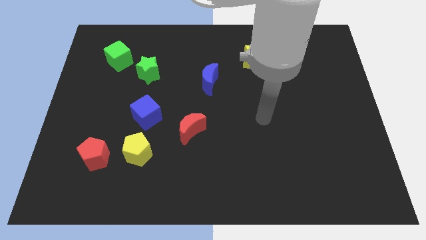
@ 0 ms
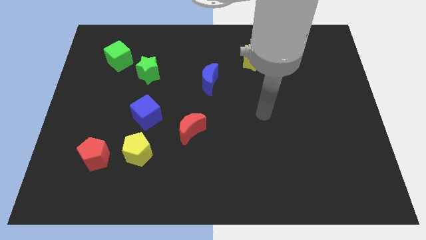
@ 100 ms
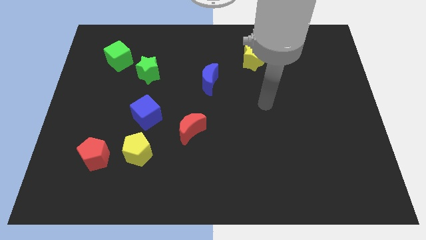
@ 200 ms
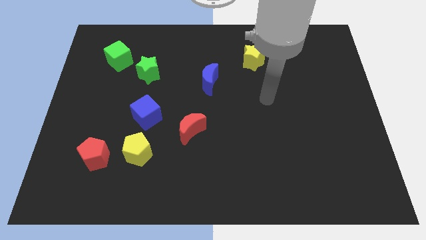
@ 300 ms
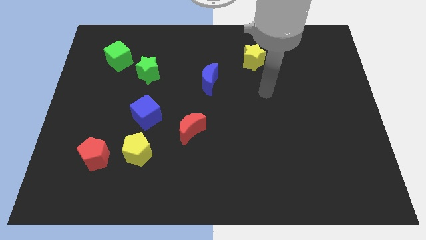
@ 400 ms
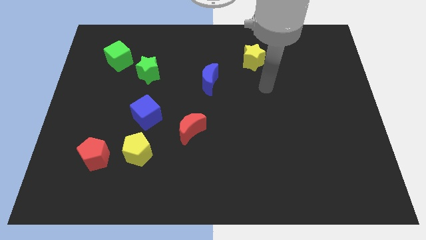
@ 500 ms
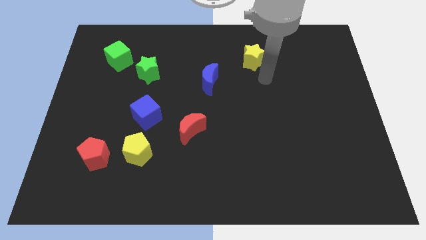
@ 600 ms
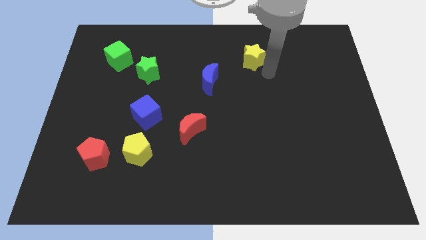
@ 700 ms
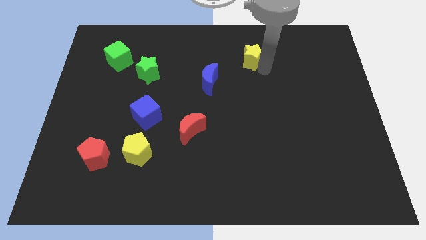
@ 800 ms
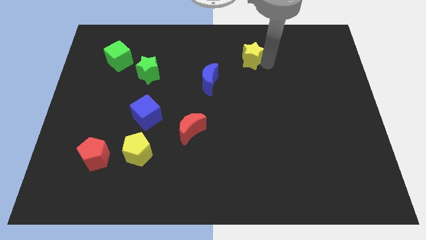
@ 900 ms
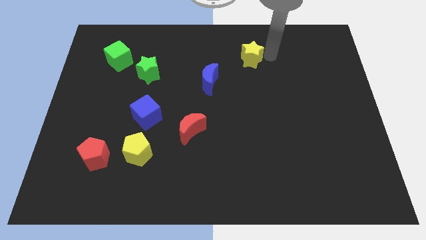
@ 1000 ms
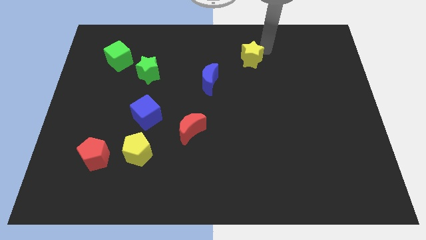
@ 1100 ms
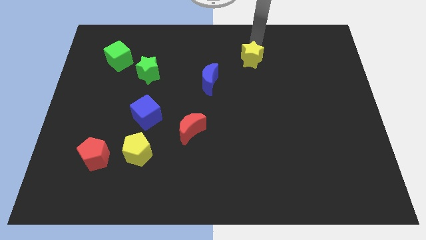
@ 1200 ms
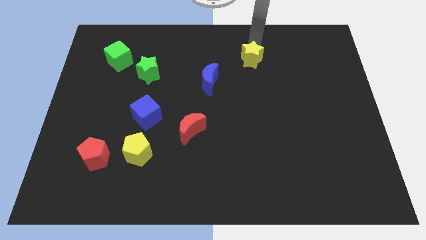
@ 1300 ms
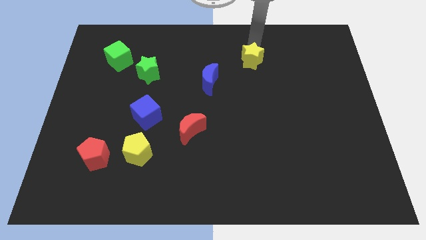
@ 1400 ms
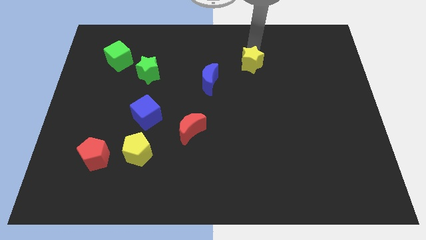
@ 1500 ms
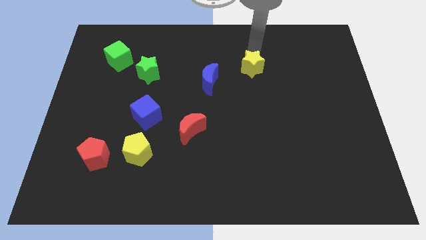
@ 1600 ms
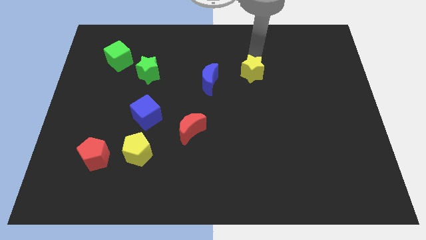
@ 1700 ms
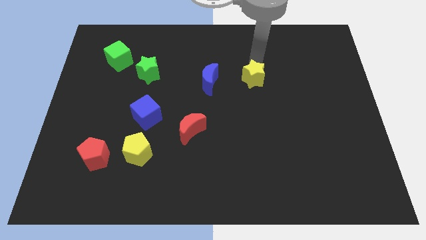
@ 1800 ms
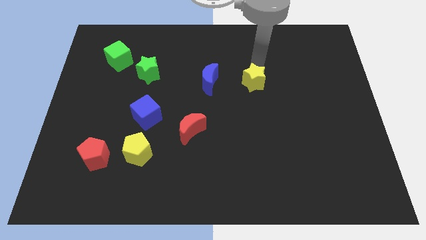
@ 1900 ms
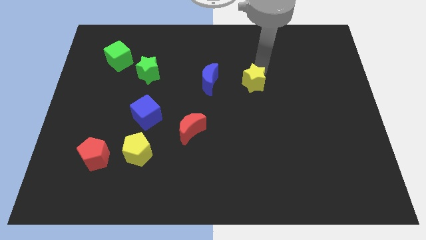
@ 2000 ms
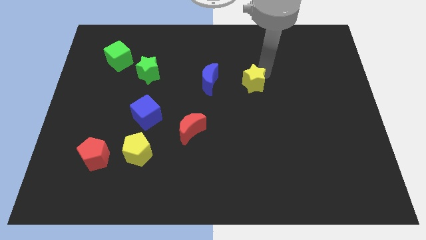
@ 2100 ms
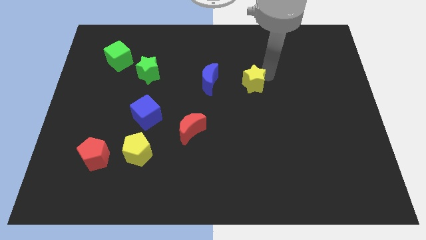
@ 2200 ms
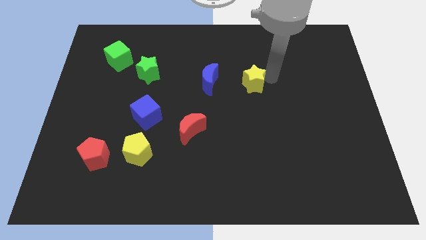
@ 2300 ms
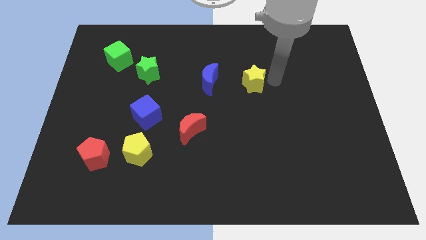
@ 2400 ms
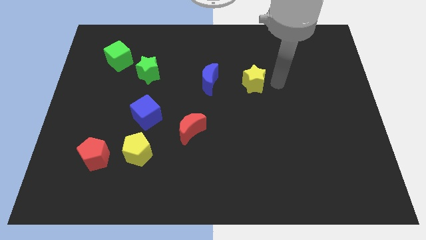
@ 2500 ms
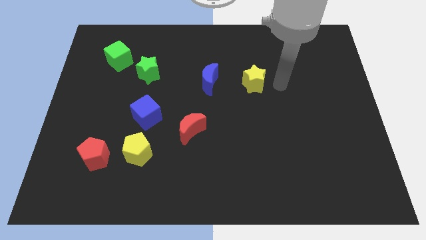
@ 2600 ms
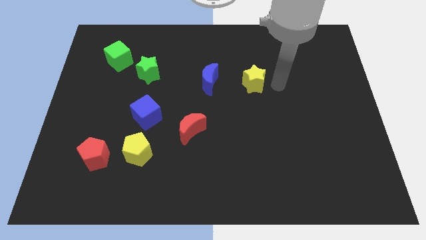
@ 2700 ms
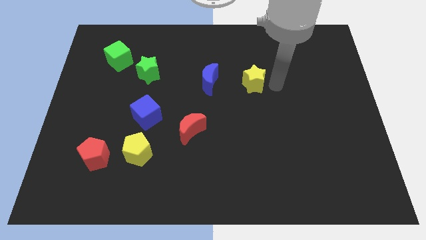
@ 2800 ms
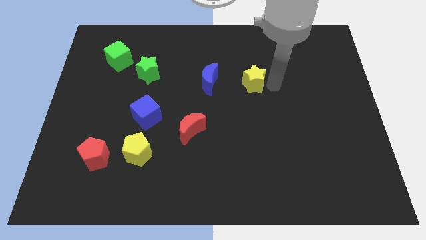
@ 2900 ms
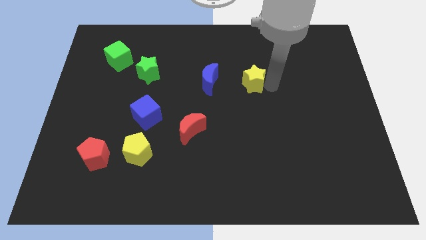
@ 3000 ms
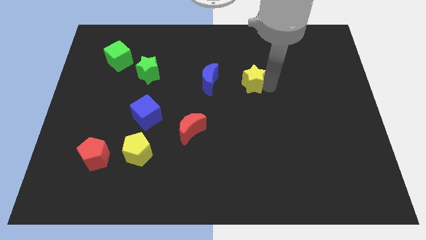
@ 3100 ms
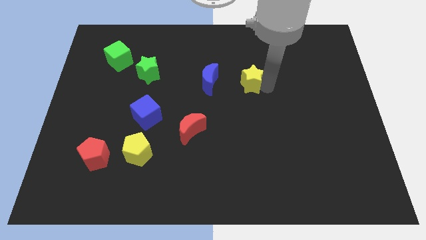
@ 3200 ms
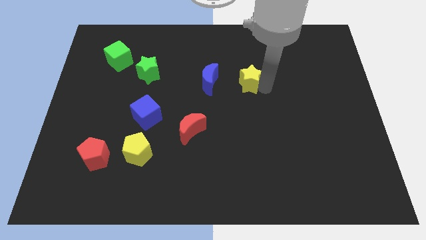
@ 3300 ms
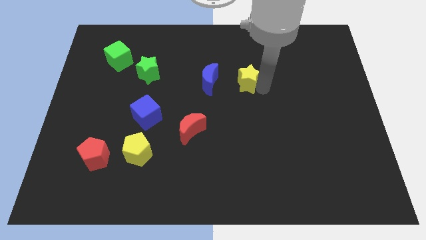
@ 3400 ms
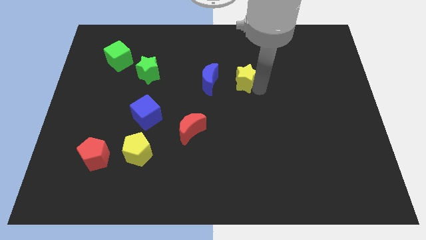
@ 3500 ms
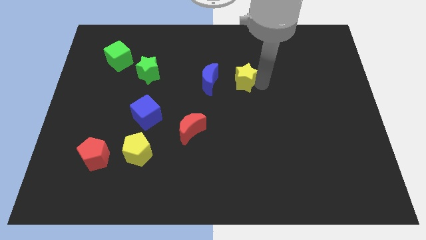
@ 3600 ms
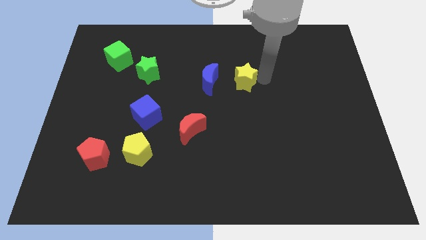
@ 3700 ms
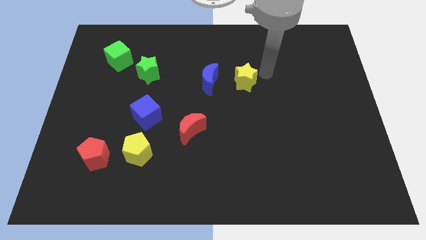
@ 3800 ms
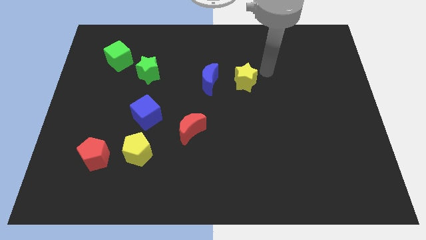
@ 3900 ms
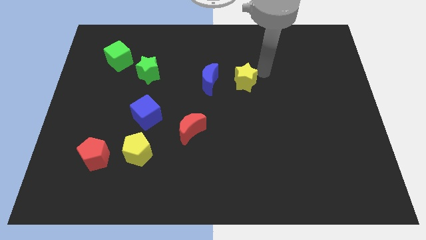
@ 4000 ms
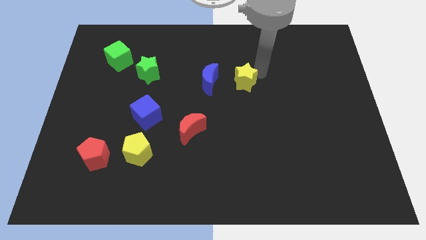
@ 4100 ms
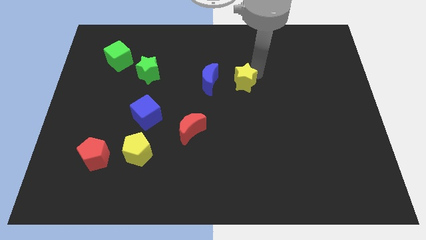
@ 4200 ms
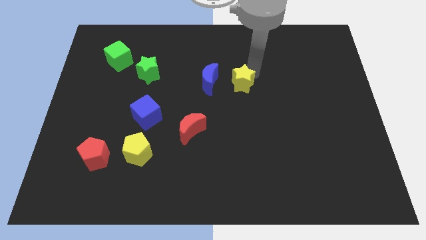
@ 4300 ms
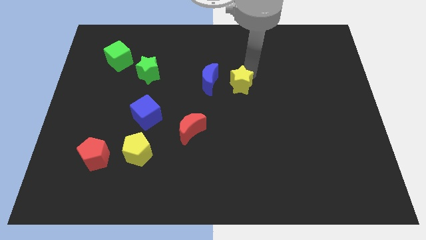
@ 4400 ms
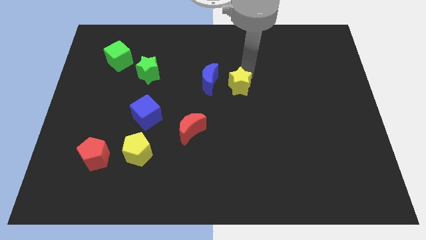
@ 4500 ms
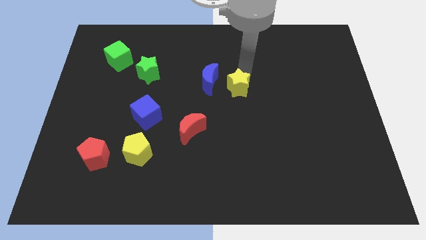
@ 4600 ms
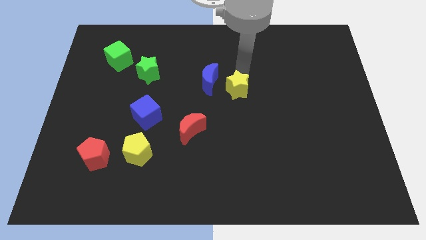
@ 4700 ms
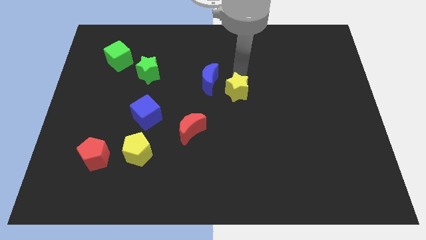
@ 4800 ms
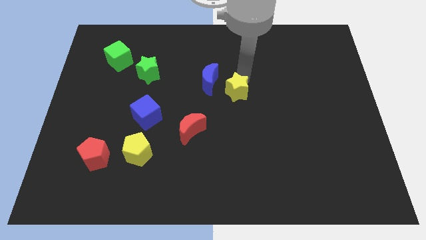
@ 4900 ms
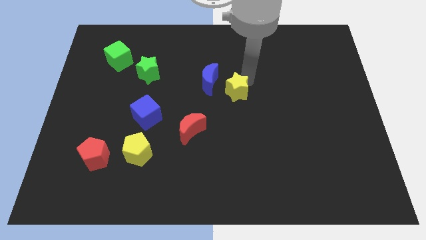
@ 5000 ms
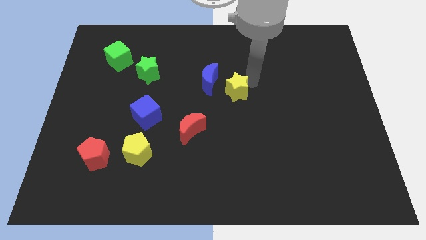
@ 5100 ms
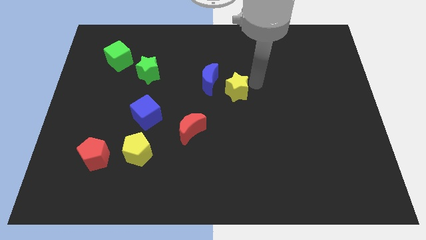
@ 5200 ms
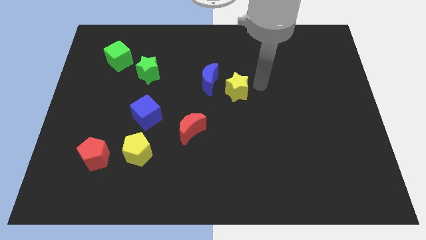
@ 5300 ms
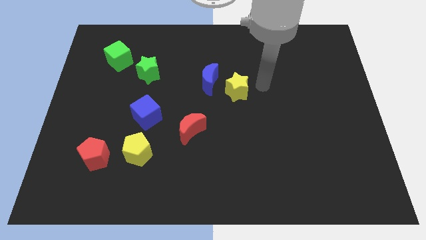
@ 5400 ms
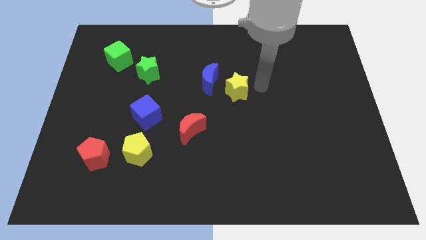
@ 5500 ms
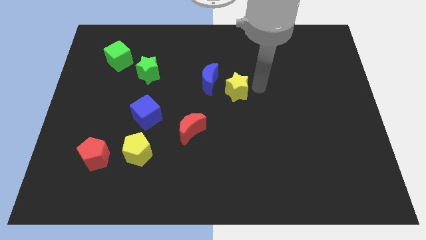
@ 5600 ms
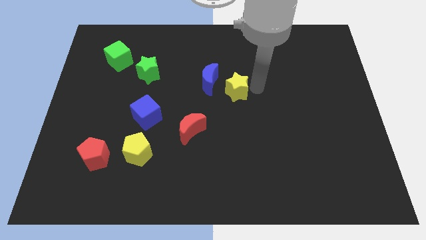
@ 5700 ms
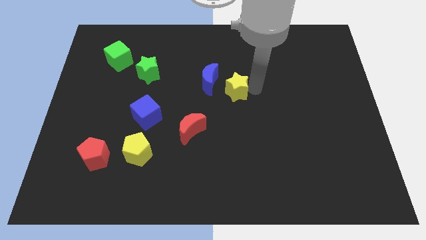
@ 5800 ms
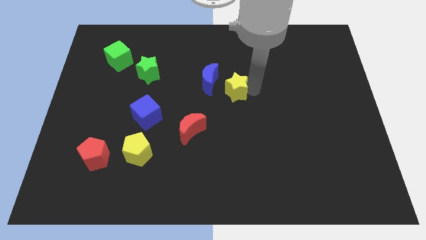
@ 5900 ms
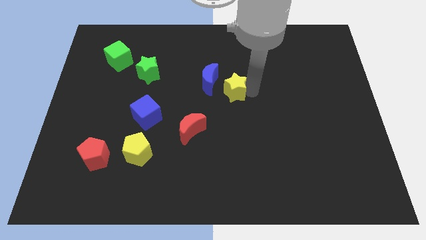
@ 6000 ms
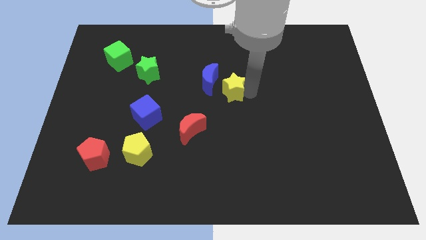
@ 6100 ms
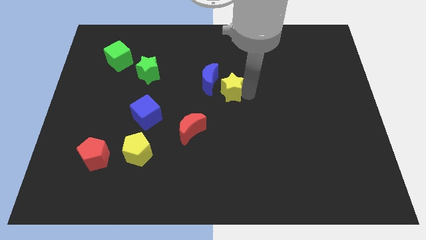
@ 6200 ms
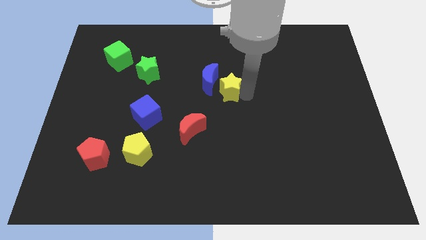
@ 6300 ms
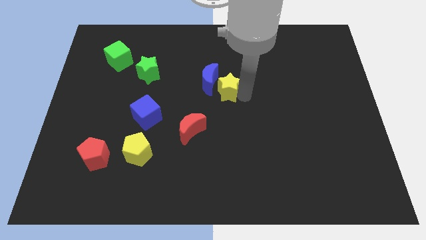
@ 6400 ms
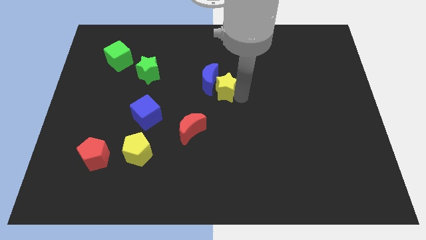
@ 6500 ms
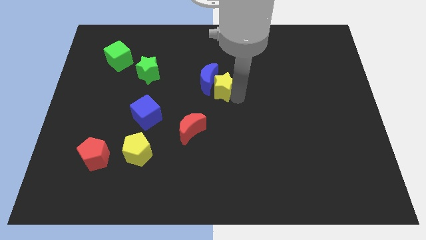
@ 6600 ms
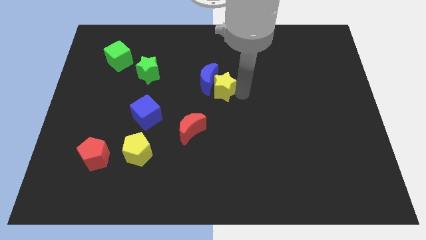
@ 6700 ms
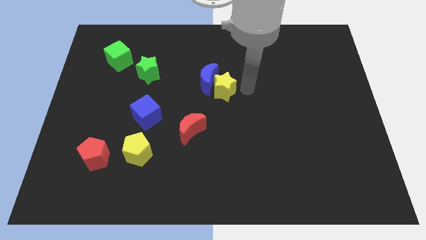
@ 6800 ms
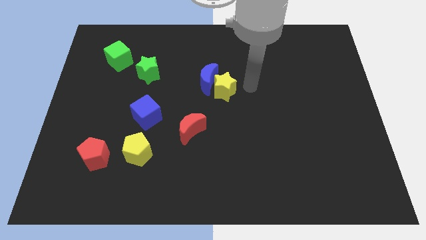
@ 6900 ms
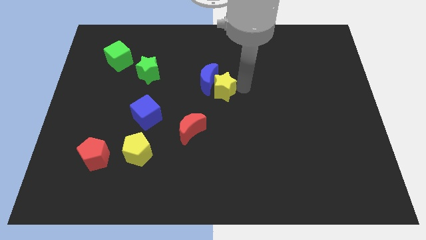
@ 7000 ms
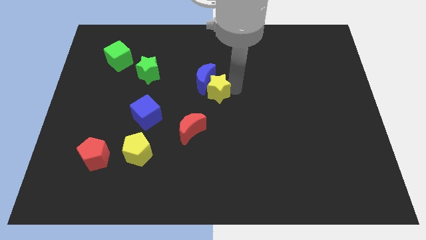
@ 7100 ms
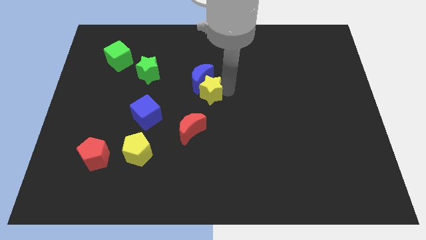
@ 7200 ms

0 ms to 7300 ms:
move the yellow star above the red moon

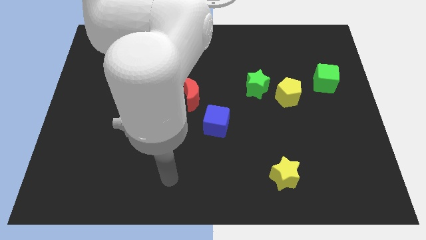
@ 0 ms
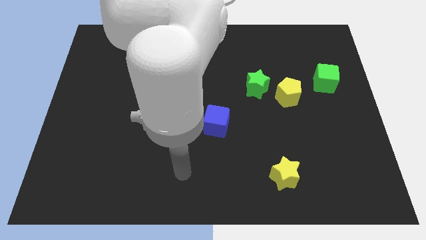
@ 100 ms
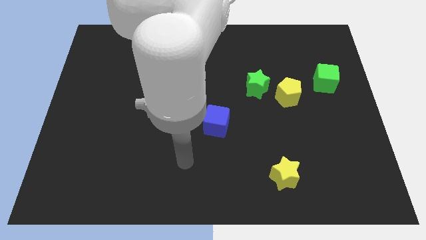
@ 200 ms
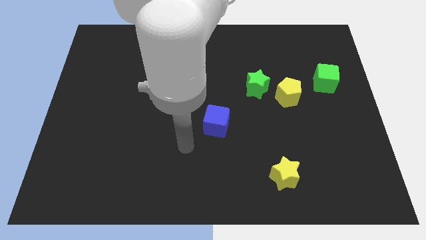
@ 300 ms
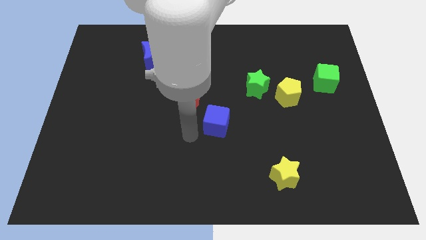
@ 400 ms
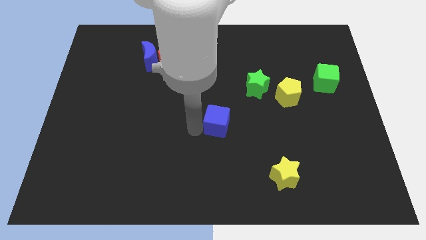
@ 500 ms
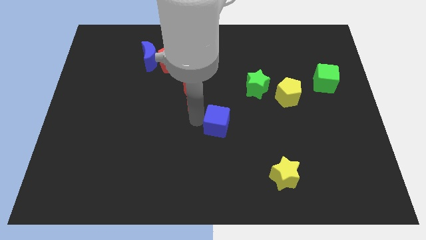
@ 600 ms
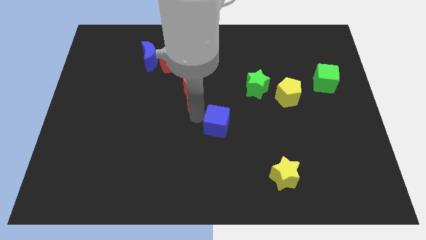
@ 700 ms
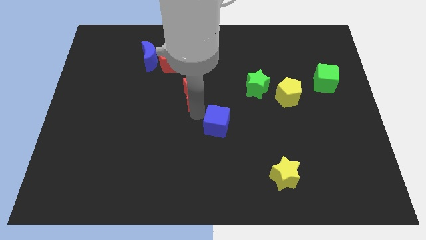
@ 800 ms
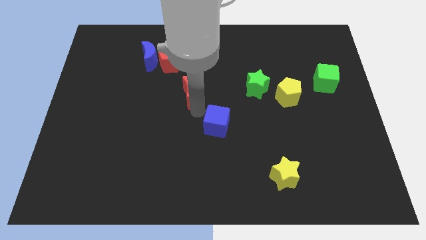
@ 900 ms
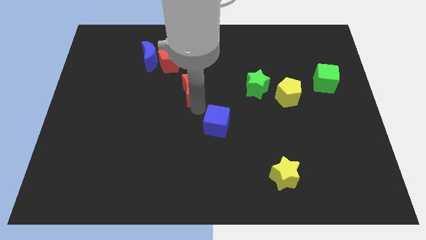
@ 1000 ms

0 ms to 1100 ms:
slide the red moon to the bottom right of the red pentagon
